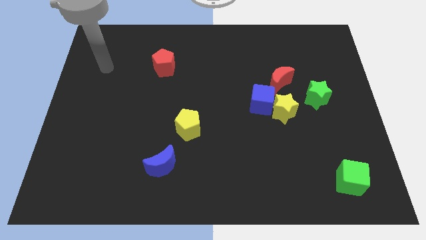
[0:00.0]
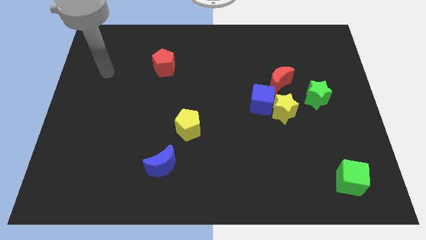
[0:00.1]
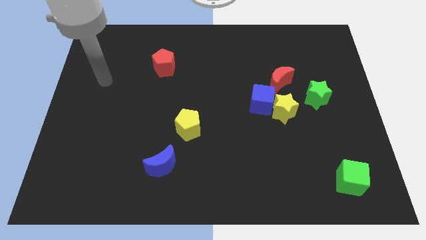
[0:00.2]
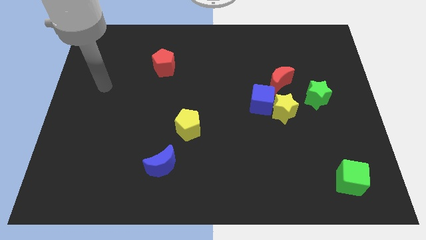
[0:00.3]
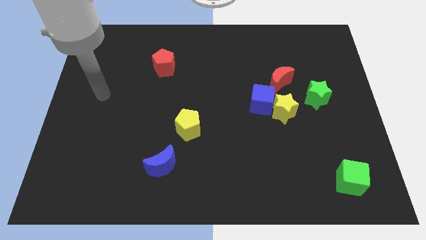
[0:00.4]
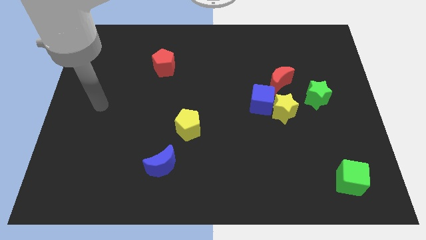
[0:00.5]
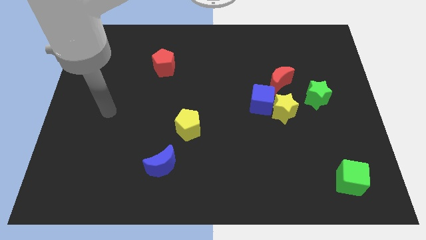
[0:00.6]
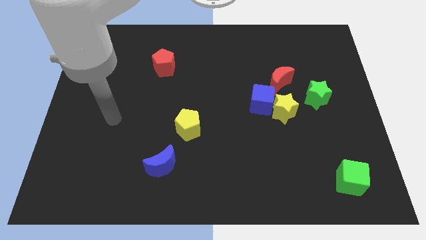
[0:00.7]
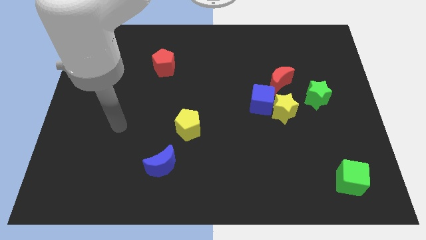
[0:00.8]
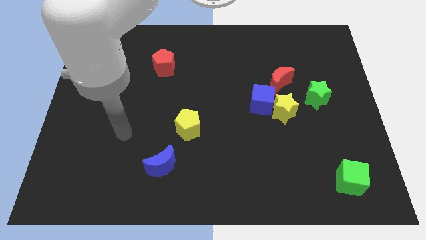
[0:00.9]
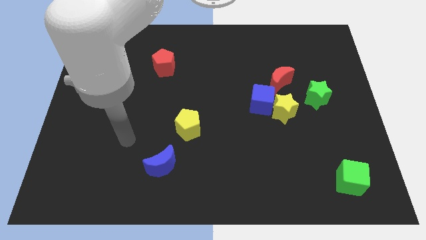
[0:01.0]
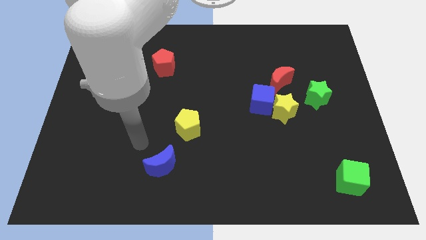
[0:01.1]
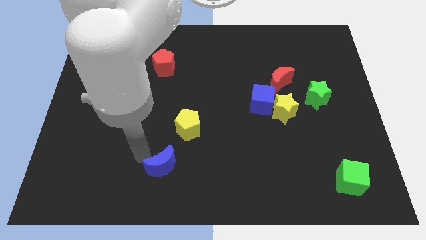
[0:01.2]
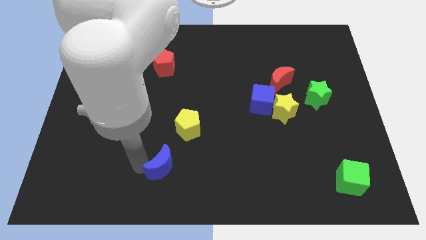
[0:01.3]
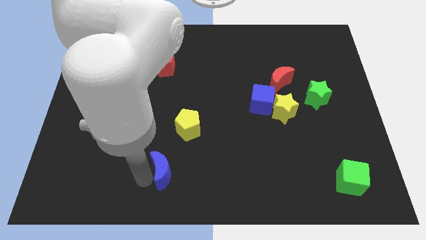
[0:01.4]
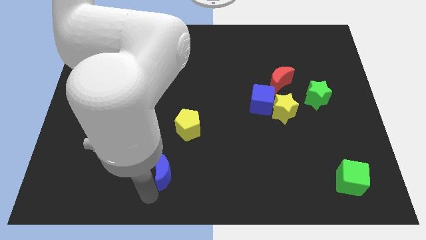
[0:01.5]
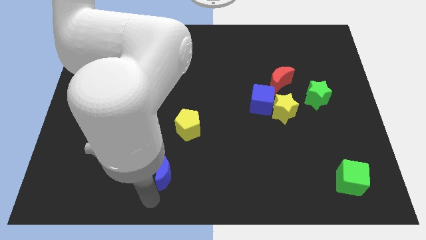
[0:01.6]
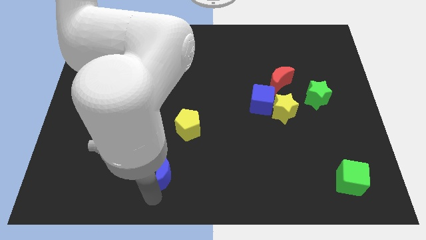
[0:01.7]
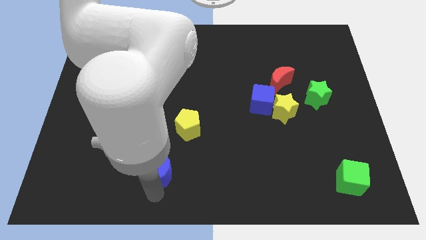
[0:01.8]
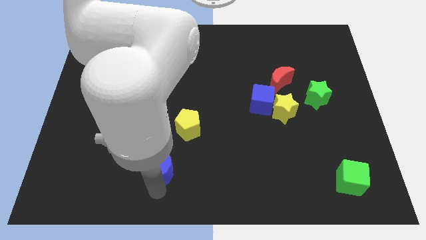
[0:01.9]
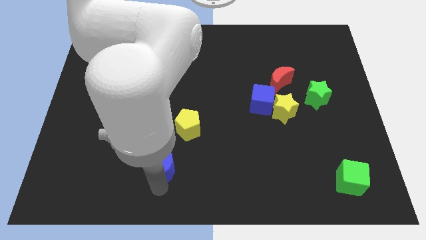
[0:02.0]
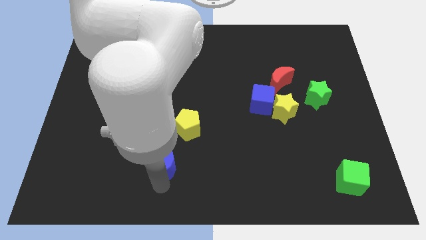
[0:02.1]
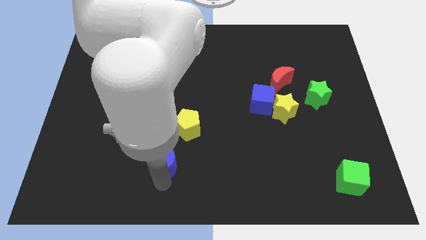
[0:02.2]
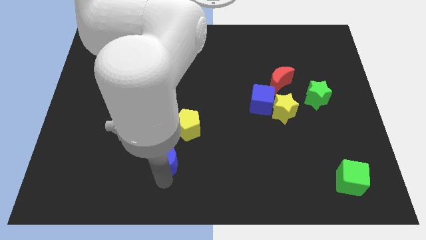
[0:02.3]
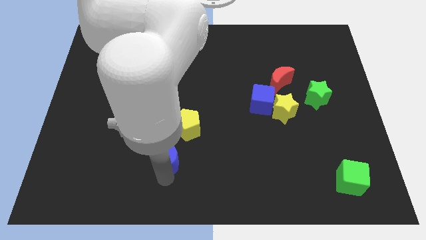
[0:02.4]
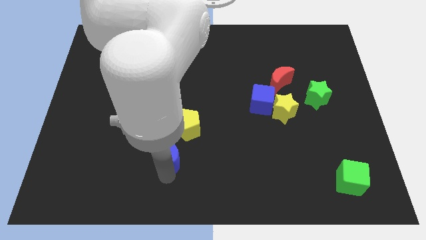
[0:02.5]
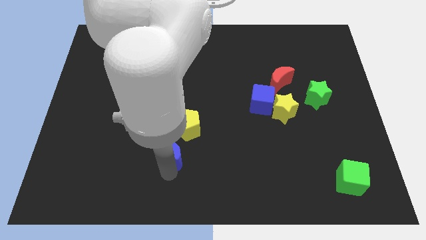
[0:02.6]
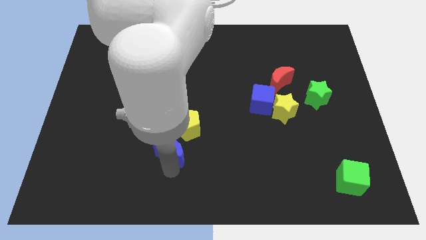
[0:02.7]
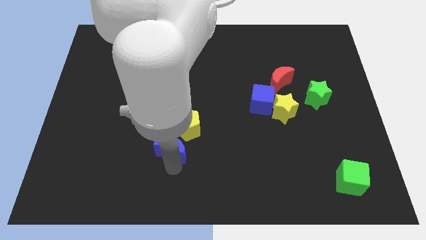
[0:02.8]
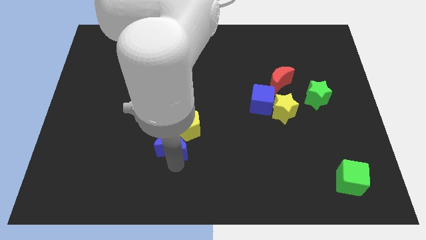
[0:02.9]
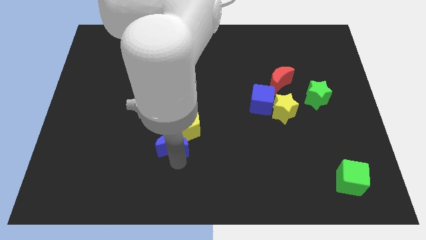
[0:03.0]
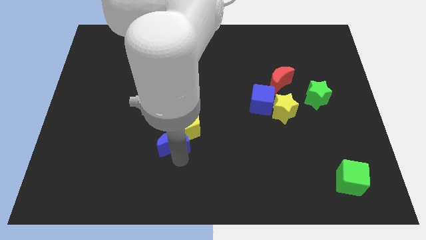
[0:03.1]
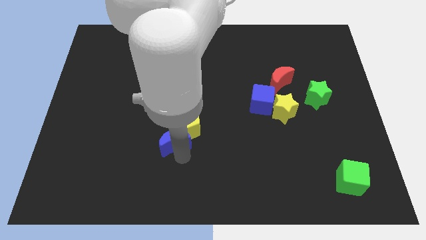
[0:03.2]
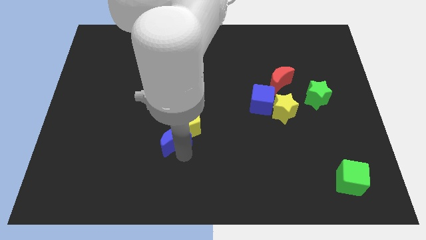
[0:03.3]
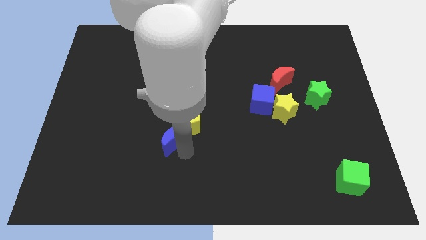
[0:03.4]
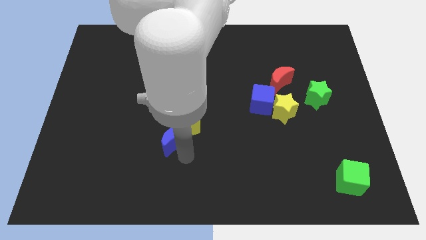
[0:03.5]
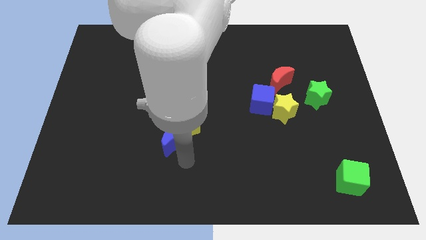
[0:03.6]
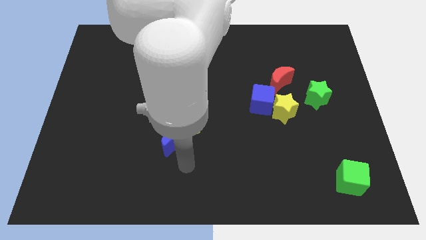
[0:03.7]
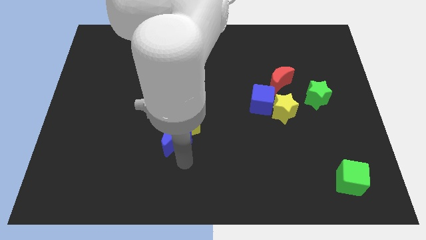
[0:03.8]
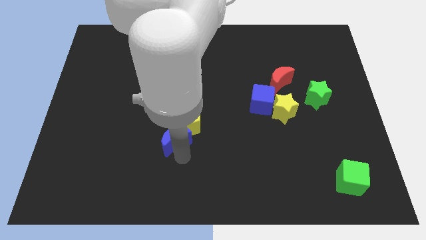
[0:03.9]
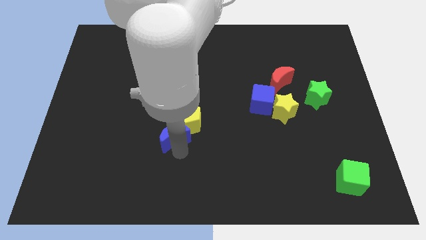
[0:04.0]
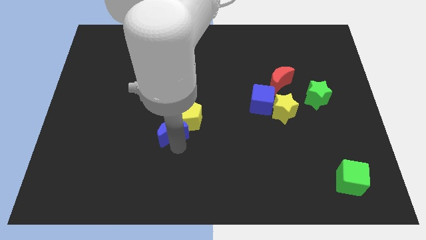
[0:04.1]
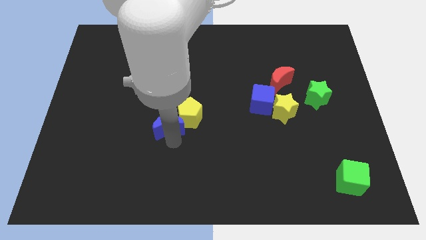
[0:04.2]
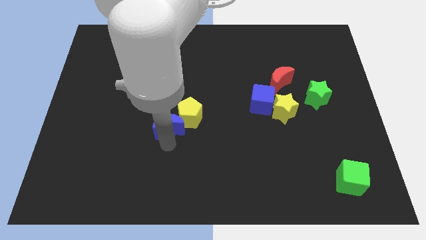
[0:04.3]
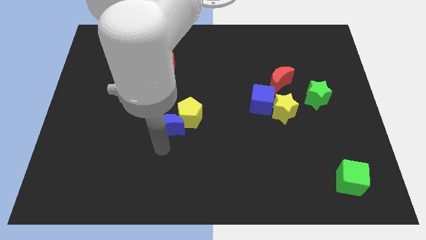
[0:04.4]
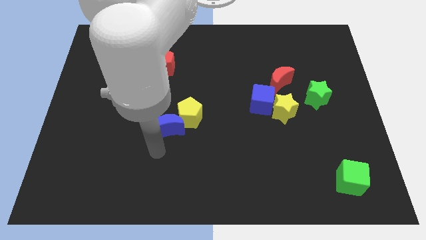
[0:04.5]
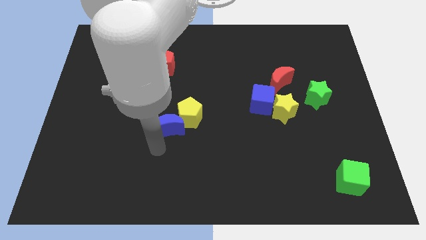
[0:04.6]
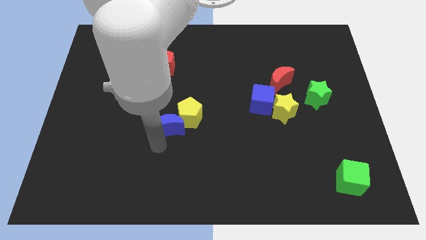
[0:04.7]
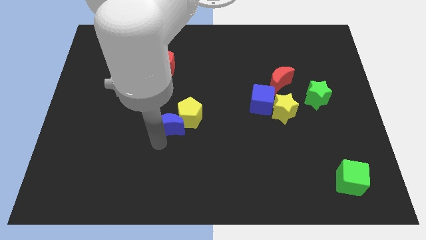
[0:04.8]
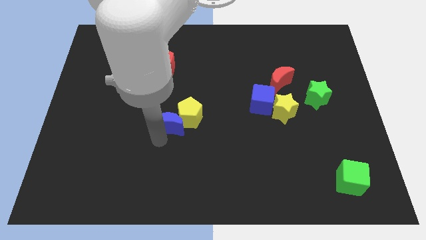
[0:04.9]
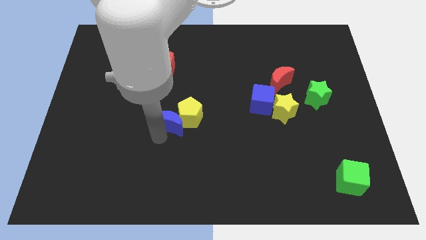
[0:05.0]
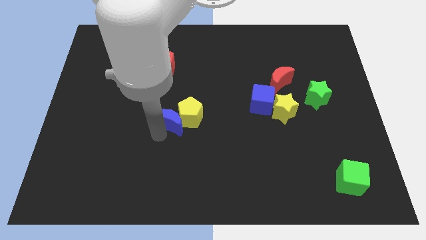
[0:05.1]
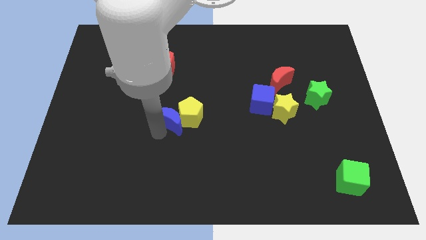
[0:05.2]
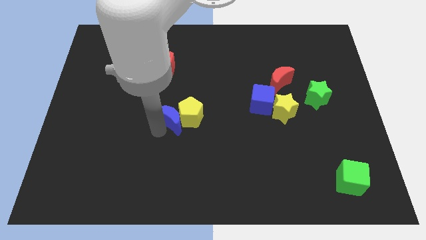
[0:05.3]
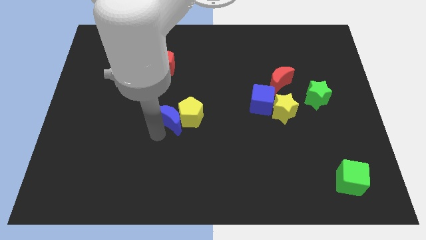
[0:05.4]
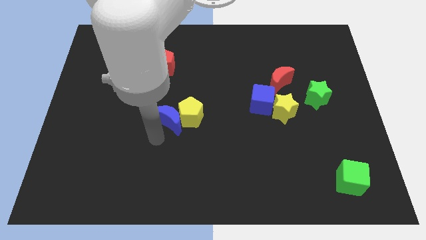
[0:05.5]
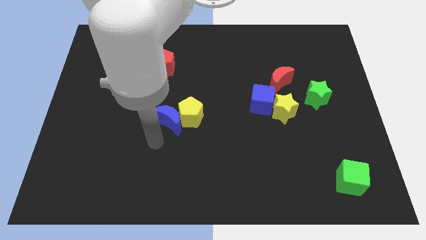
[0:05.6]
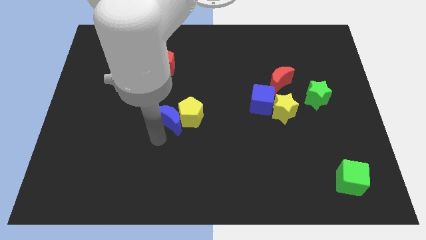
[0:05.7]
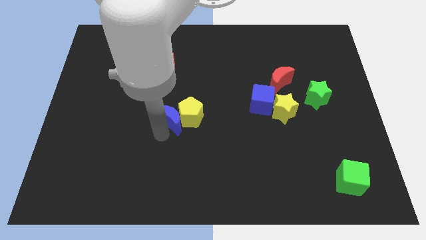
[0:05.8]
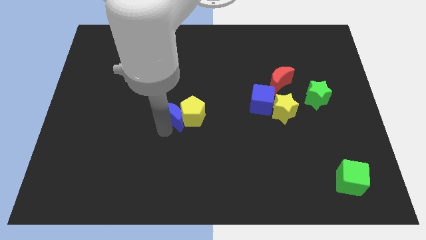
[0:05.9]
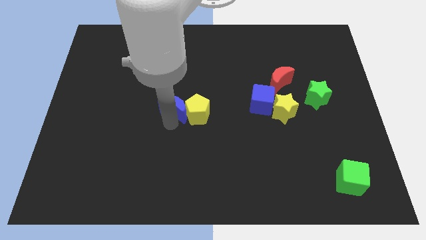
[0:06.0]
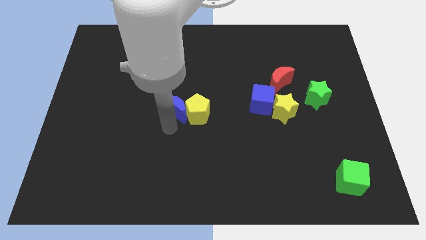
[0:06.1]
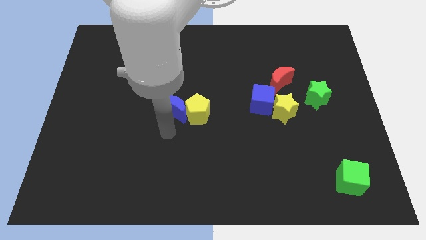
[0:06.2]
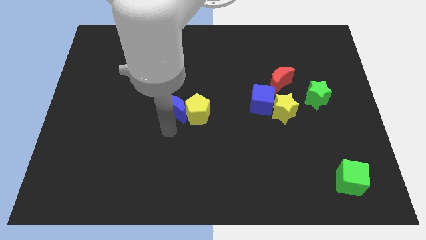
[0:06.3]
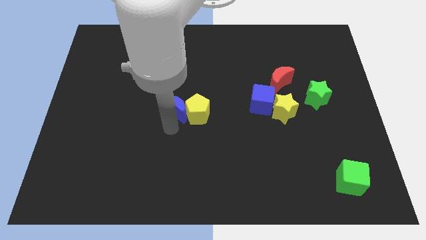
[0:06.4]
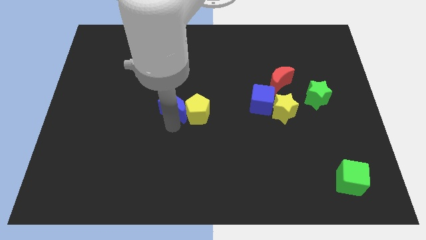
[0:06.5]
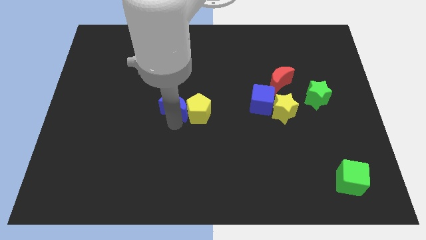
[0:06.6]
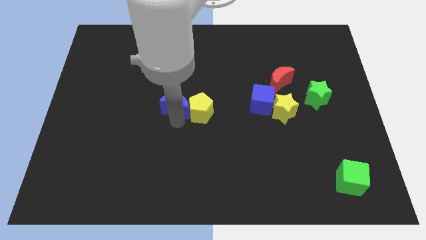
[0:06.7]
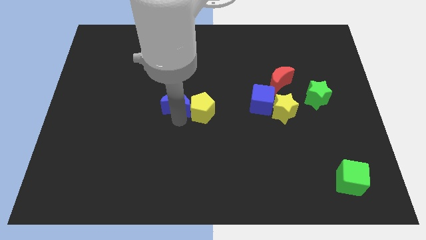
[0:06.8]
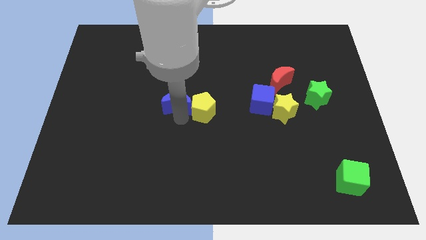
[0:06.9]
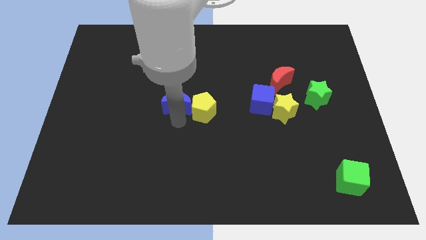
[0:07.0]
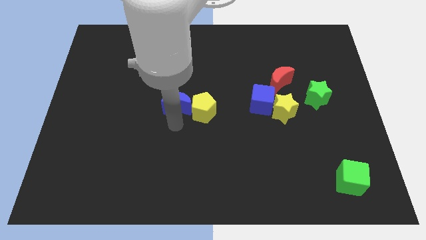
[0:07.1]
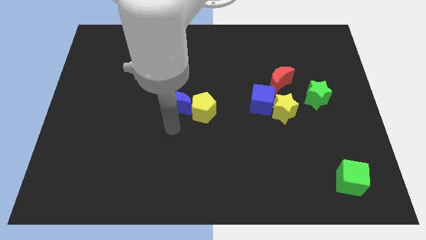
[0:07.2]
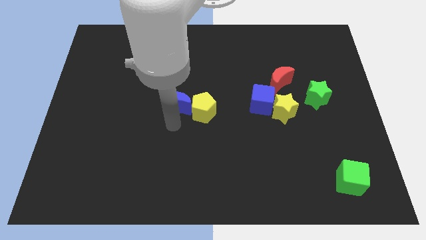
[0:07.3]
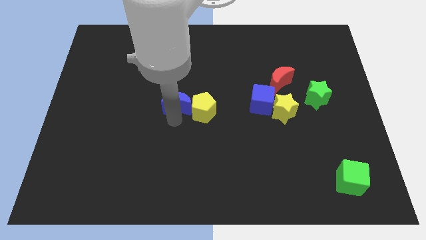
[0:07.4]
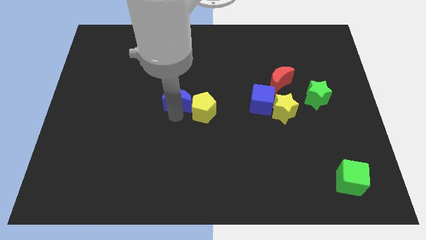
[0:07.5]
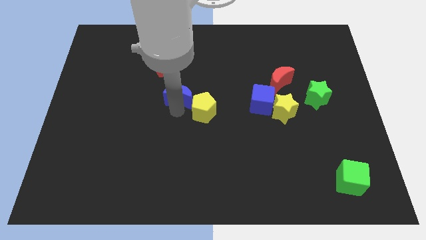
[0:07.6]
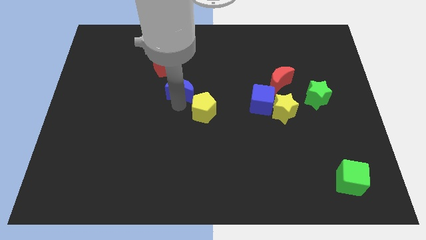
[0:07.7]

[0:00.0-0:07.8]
push the blue moon to the bottom right of the red pentagon
